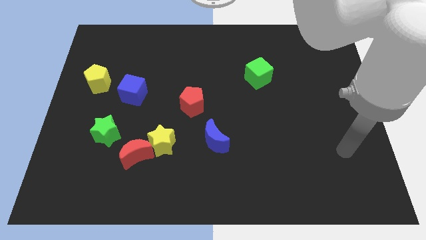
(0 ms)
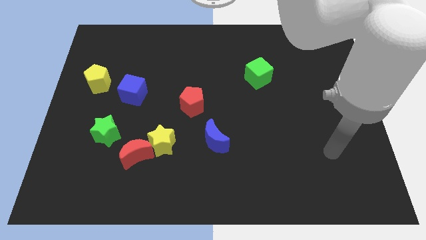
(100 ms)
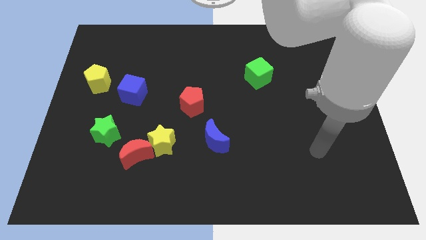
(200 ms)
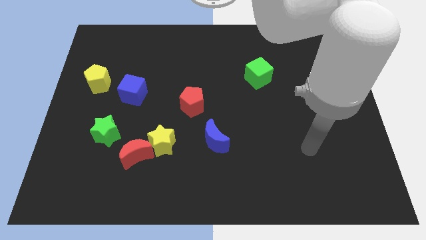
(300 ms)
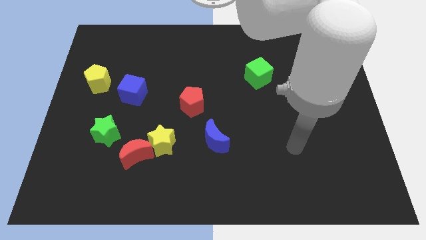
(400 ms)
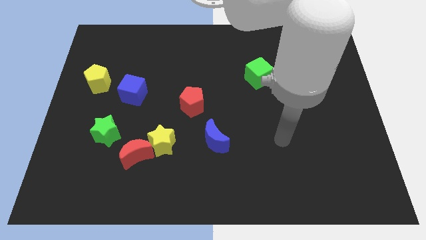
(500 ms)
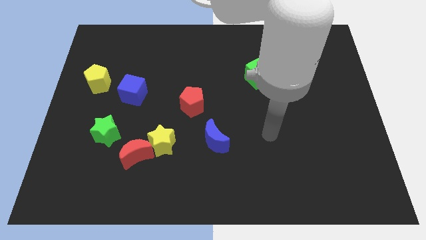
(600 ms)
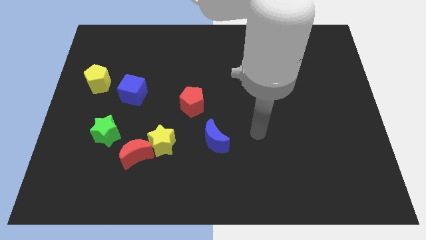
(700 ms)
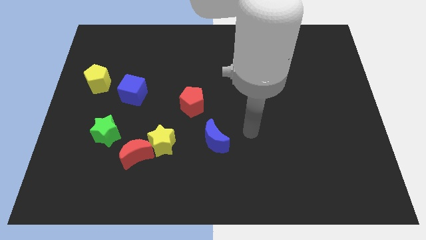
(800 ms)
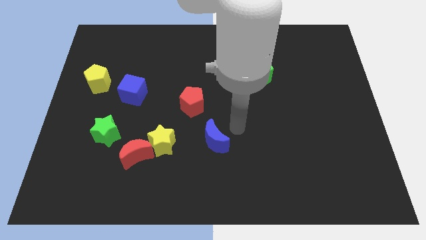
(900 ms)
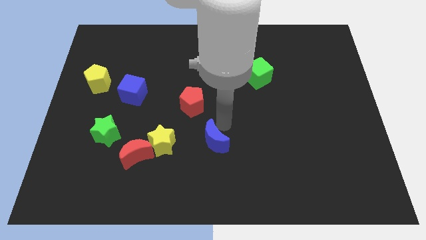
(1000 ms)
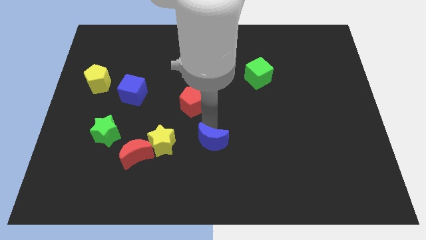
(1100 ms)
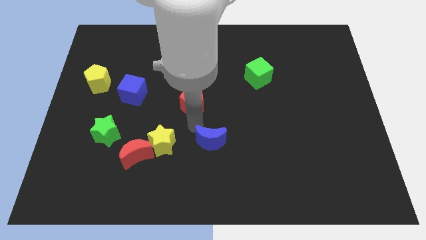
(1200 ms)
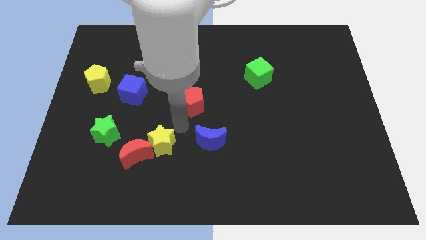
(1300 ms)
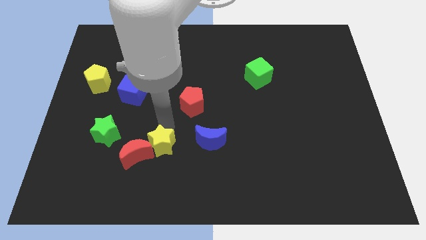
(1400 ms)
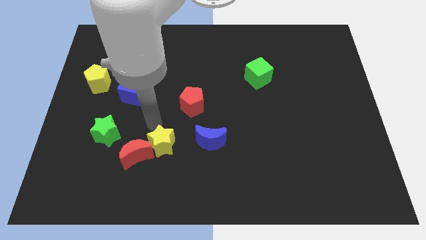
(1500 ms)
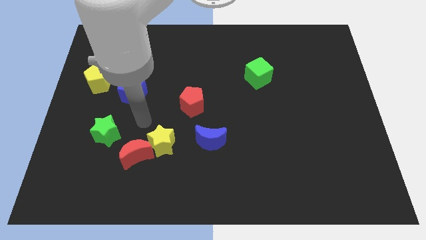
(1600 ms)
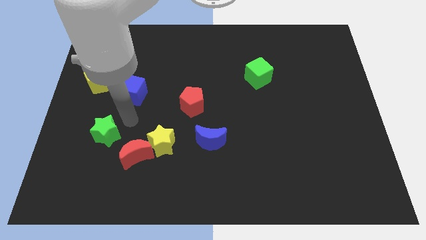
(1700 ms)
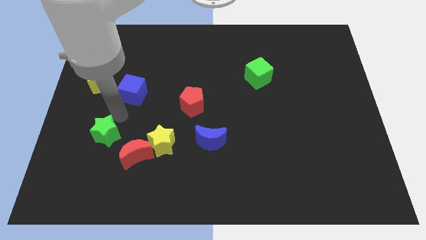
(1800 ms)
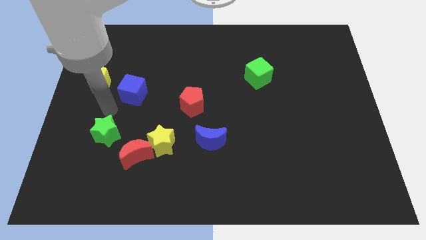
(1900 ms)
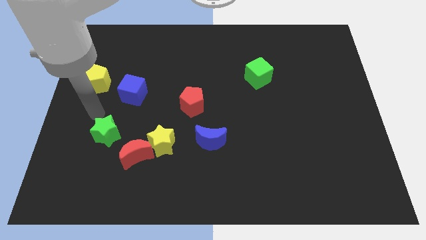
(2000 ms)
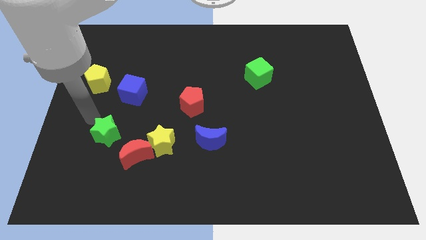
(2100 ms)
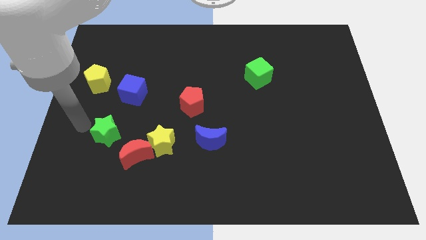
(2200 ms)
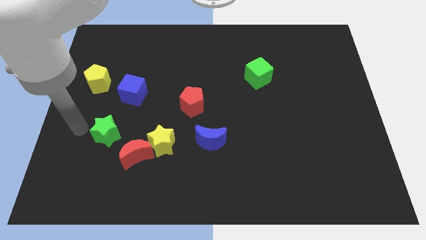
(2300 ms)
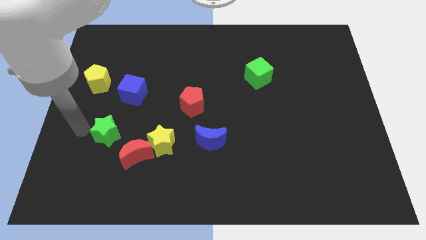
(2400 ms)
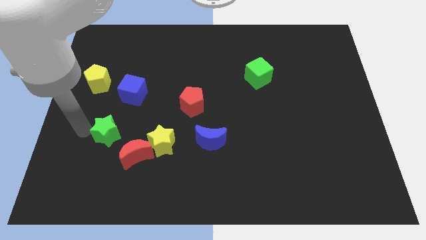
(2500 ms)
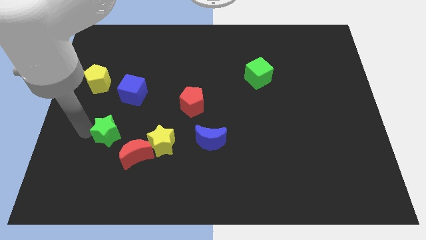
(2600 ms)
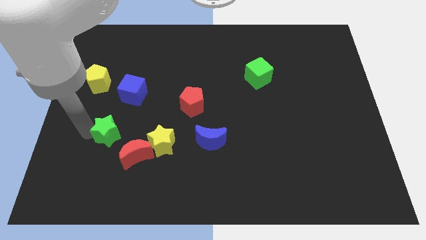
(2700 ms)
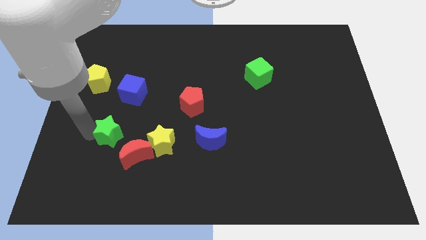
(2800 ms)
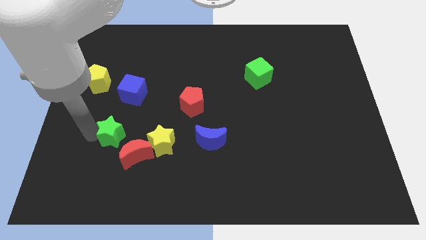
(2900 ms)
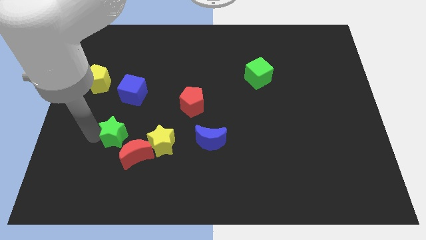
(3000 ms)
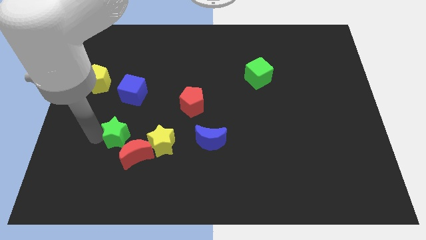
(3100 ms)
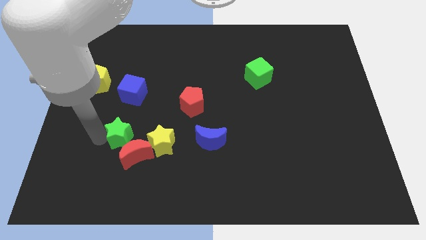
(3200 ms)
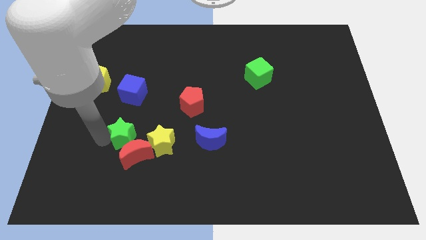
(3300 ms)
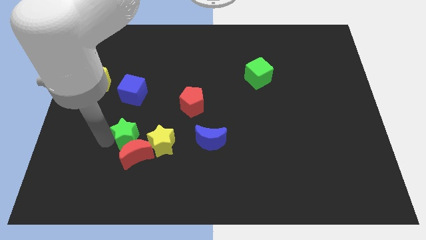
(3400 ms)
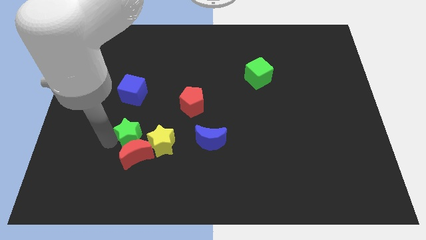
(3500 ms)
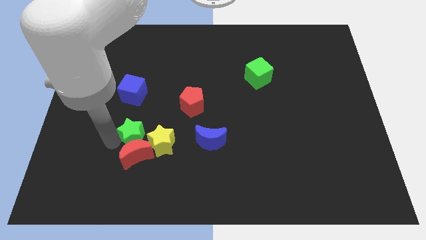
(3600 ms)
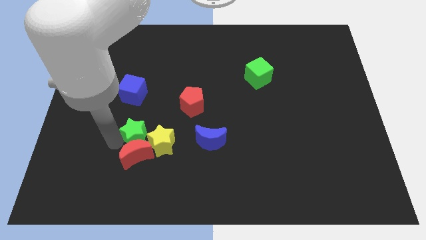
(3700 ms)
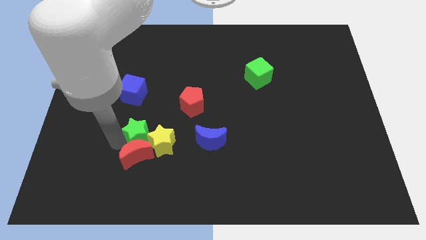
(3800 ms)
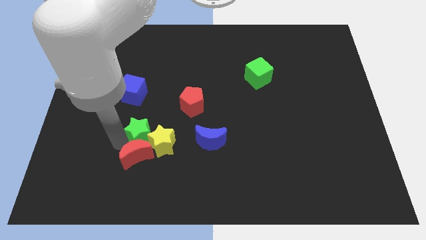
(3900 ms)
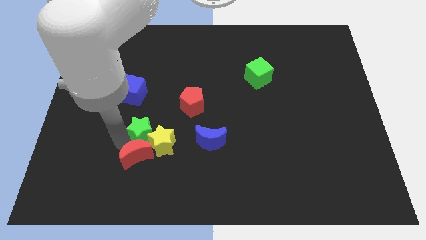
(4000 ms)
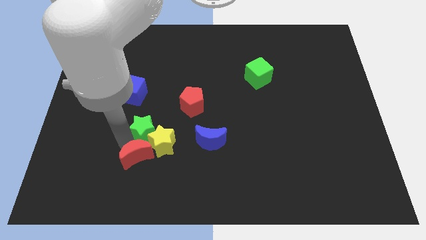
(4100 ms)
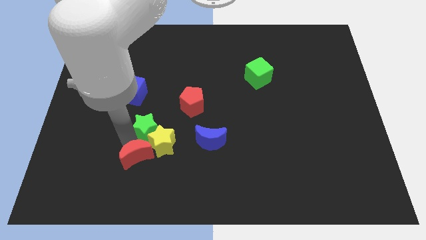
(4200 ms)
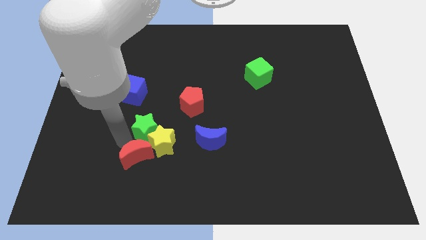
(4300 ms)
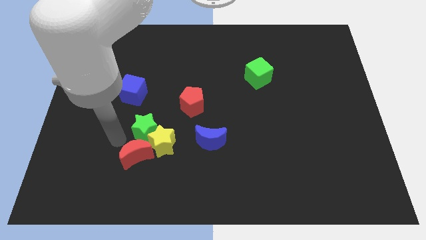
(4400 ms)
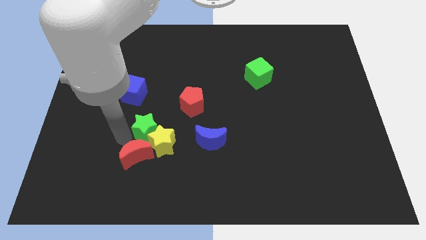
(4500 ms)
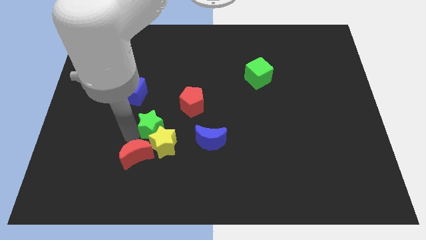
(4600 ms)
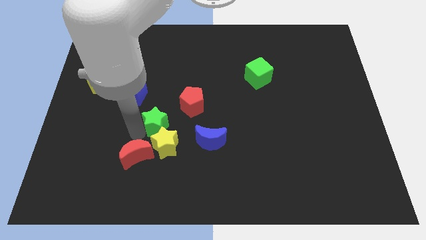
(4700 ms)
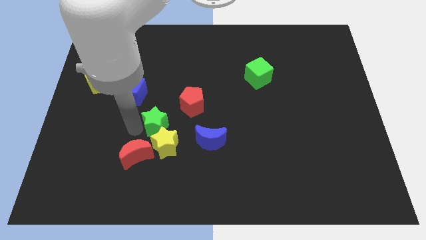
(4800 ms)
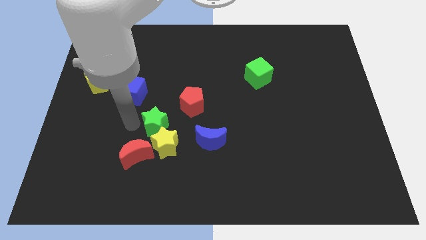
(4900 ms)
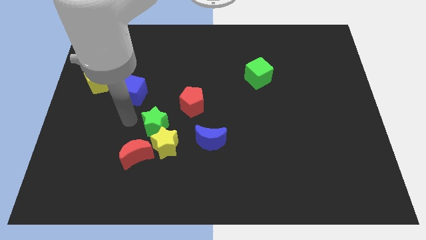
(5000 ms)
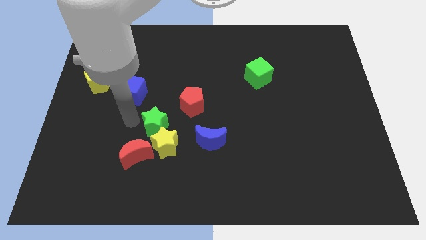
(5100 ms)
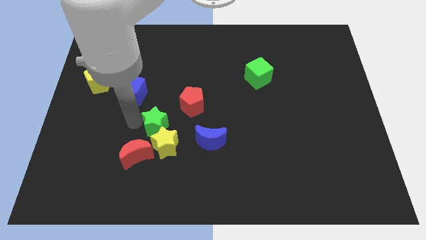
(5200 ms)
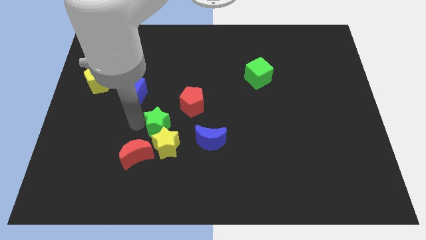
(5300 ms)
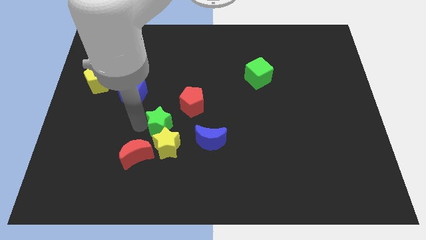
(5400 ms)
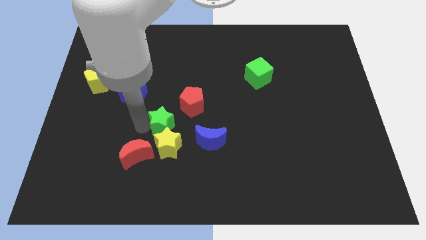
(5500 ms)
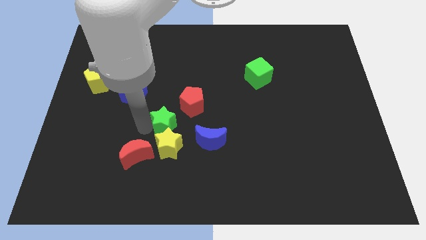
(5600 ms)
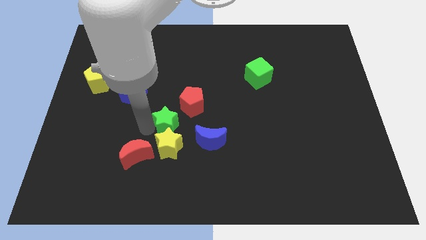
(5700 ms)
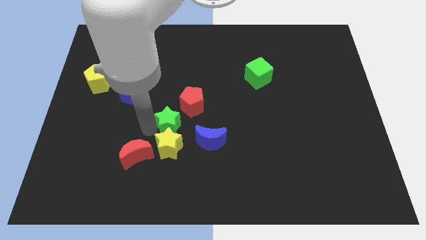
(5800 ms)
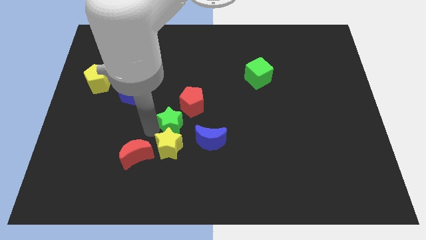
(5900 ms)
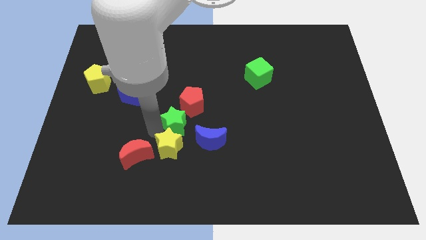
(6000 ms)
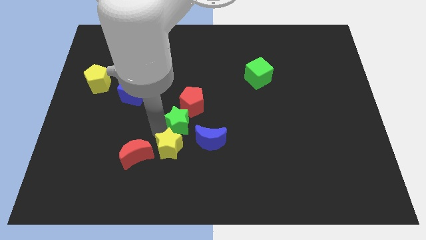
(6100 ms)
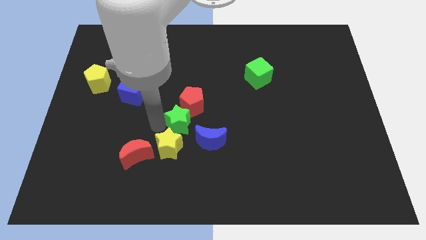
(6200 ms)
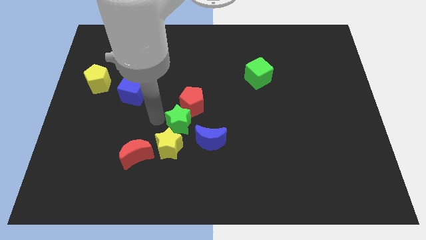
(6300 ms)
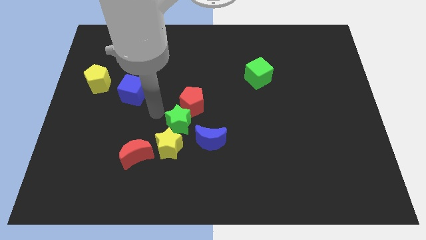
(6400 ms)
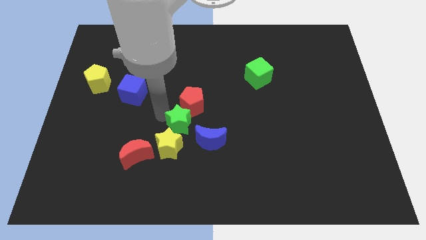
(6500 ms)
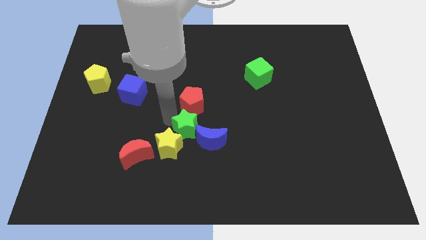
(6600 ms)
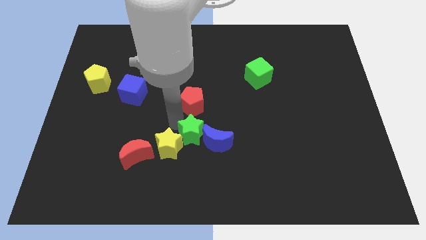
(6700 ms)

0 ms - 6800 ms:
push the green star to the blue moon
